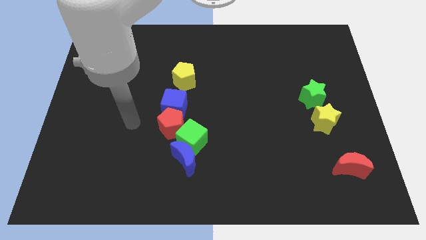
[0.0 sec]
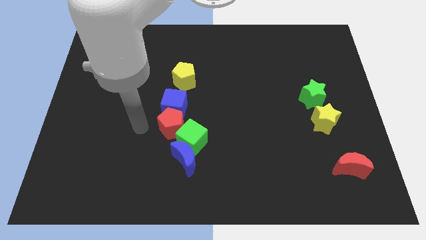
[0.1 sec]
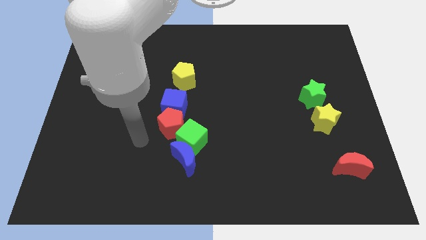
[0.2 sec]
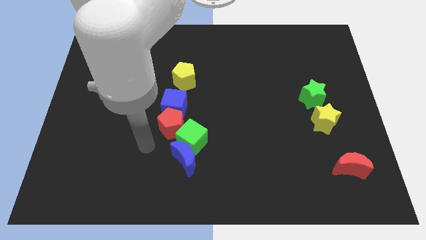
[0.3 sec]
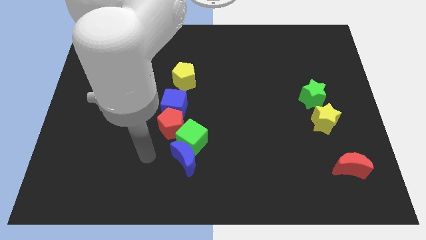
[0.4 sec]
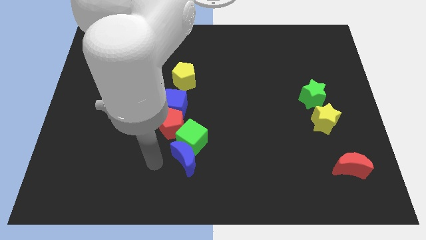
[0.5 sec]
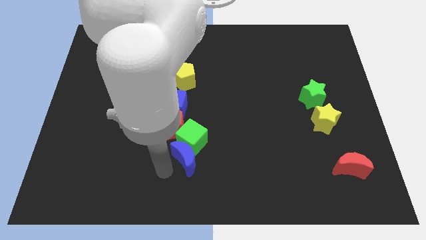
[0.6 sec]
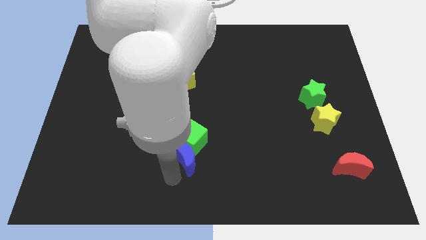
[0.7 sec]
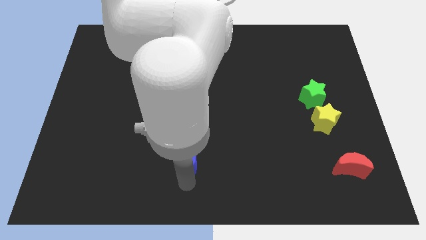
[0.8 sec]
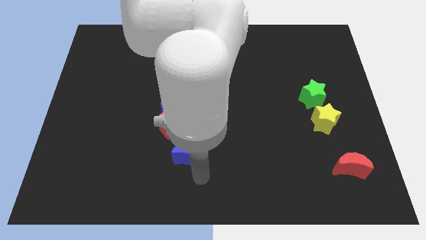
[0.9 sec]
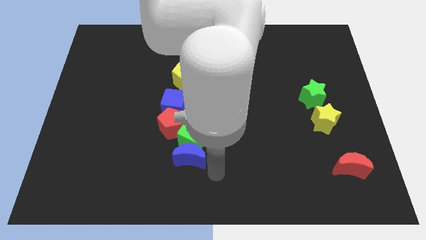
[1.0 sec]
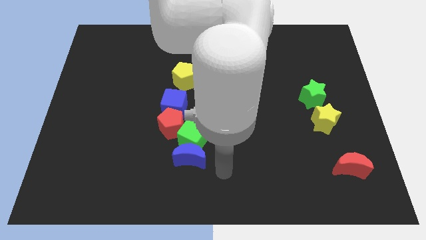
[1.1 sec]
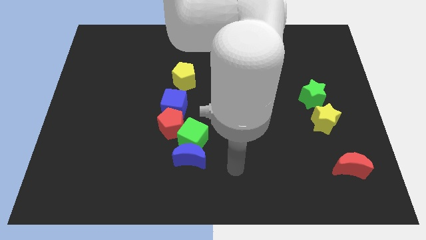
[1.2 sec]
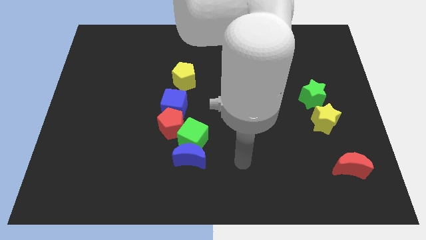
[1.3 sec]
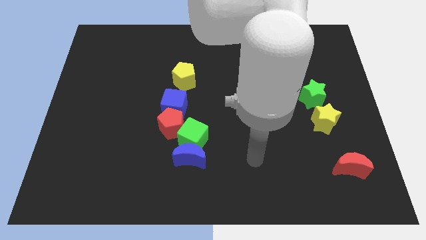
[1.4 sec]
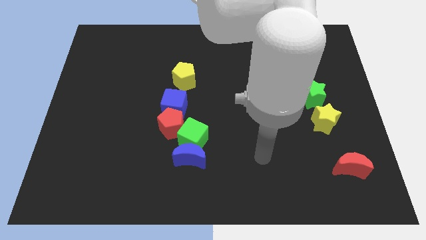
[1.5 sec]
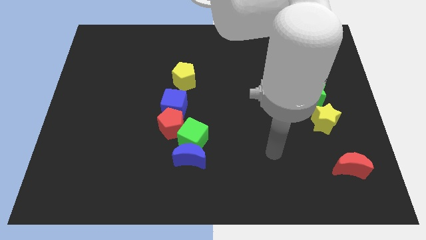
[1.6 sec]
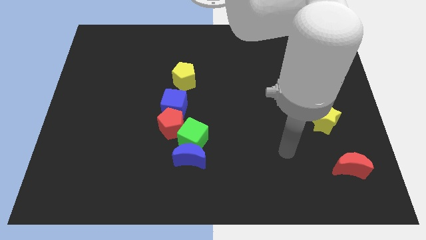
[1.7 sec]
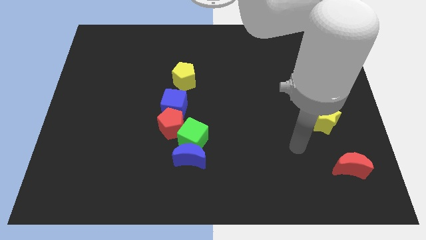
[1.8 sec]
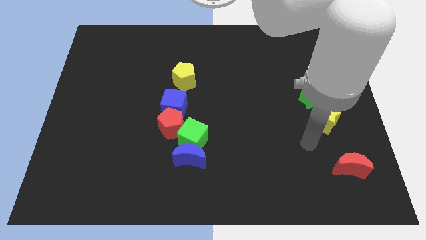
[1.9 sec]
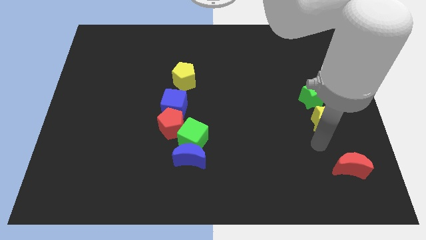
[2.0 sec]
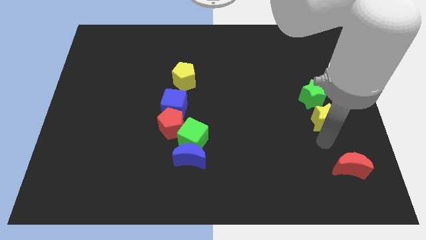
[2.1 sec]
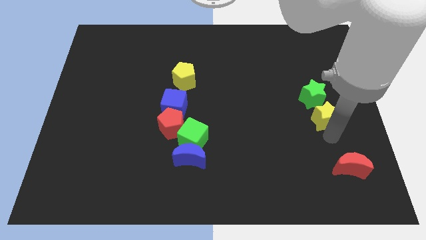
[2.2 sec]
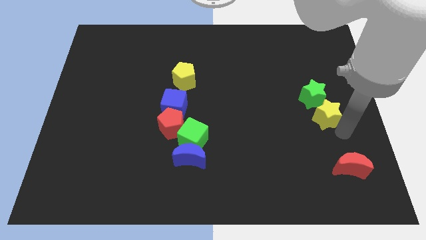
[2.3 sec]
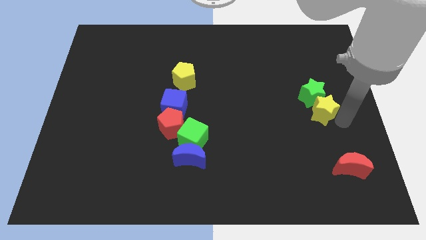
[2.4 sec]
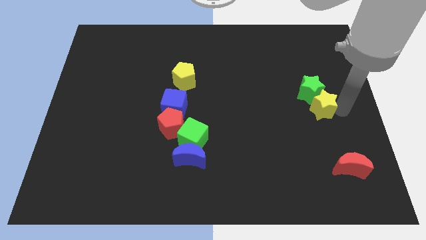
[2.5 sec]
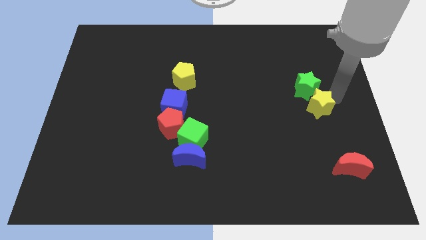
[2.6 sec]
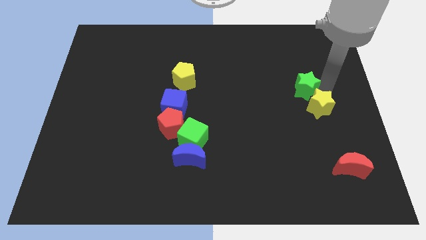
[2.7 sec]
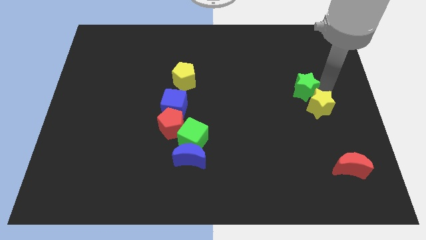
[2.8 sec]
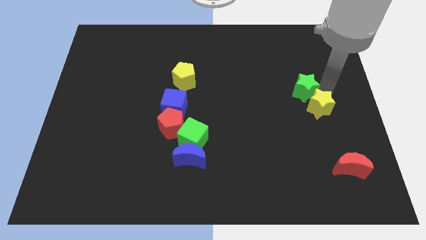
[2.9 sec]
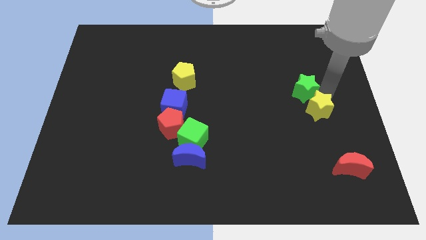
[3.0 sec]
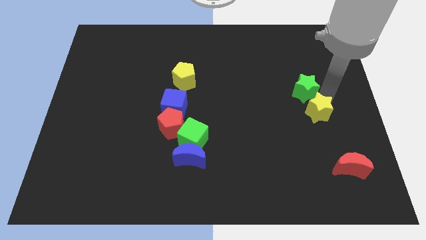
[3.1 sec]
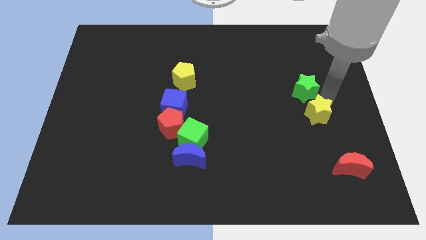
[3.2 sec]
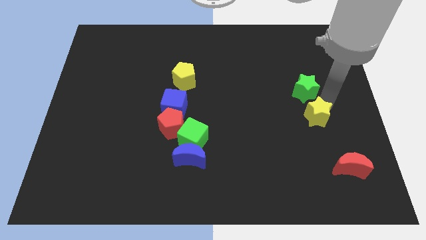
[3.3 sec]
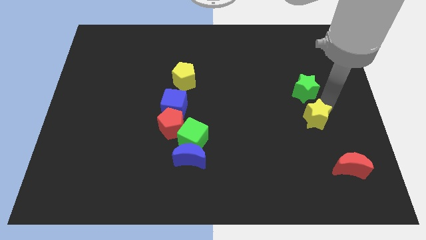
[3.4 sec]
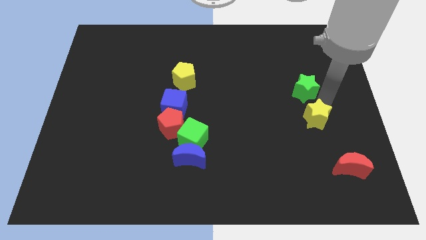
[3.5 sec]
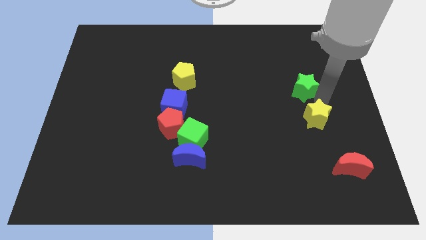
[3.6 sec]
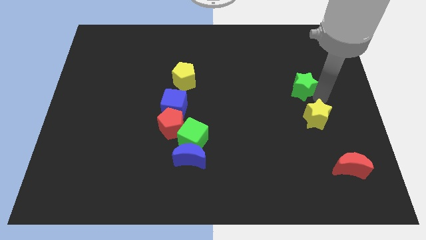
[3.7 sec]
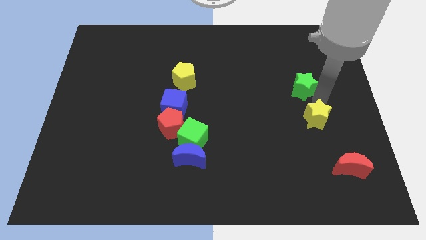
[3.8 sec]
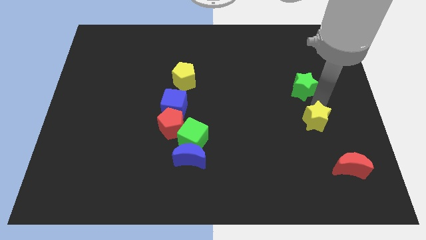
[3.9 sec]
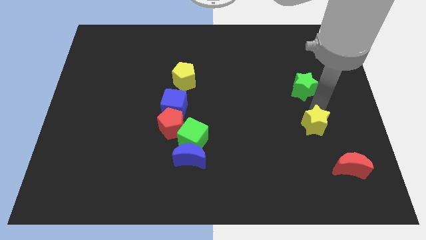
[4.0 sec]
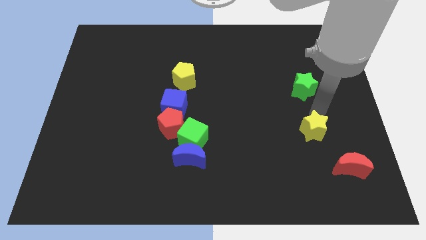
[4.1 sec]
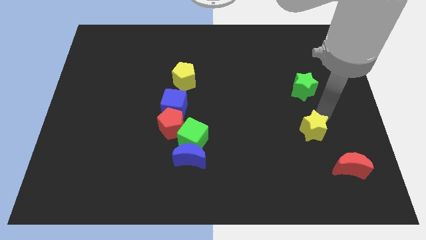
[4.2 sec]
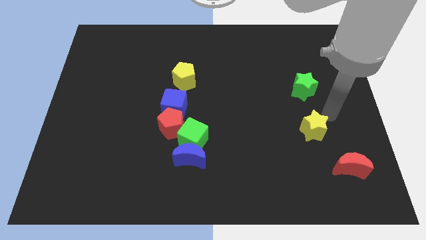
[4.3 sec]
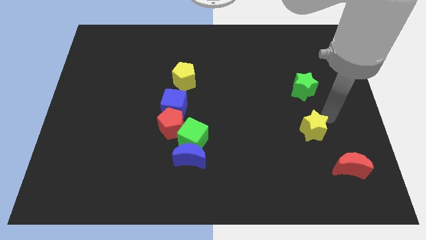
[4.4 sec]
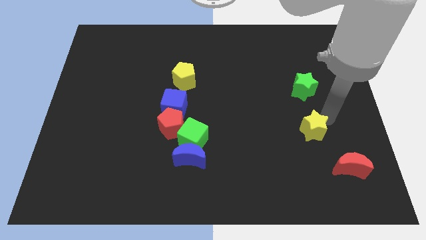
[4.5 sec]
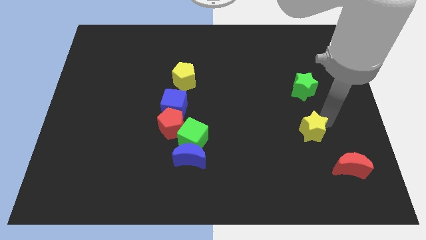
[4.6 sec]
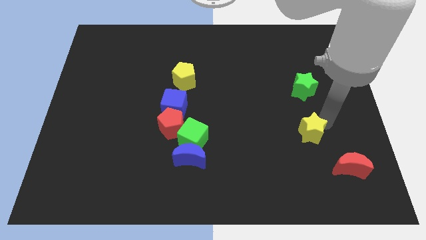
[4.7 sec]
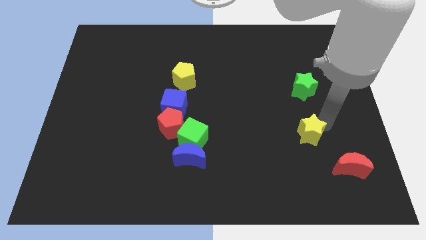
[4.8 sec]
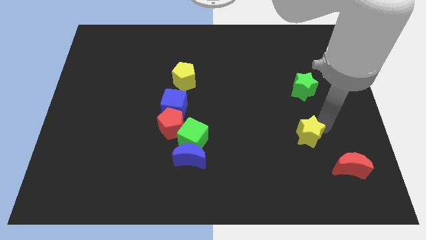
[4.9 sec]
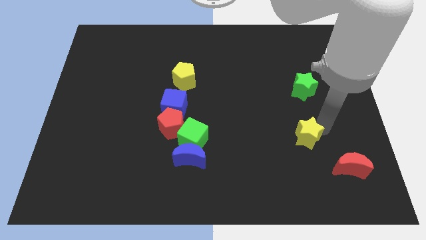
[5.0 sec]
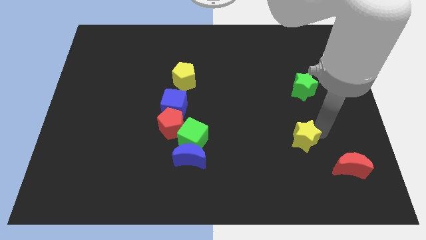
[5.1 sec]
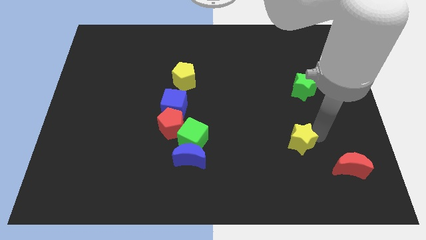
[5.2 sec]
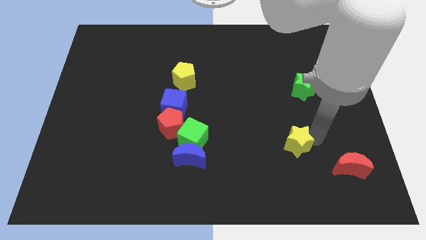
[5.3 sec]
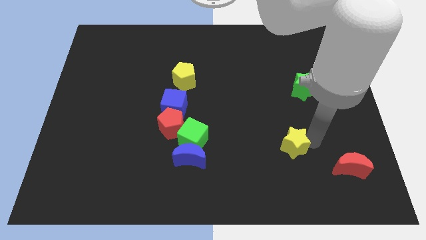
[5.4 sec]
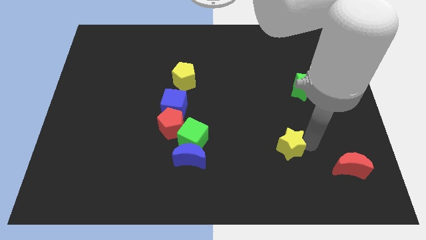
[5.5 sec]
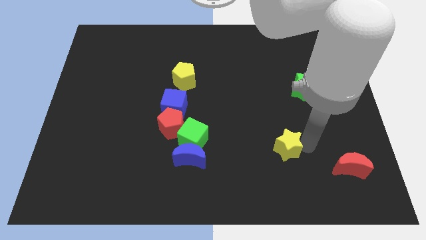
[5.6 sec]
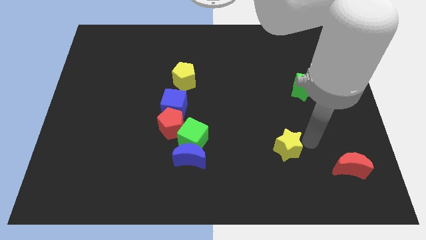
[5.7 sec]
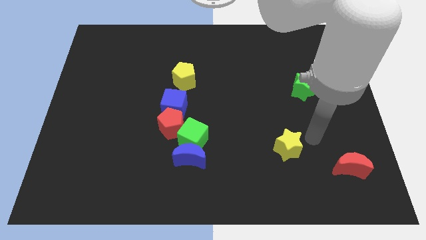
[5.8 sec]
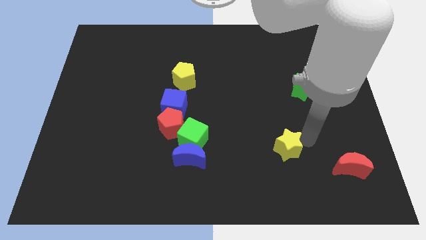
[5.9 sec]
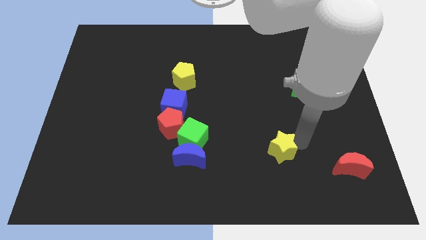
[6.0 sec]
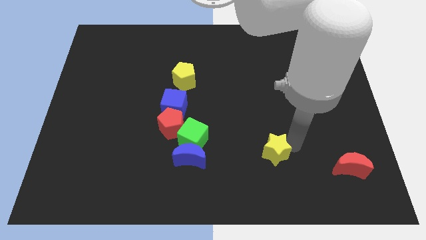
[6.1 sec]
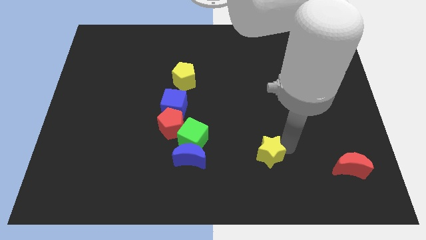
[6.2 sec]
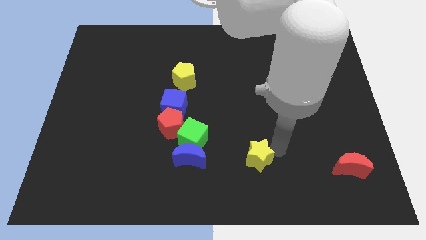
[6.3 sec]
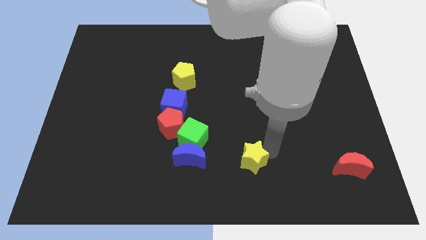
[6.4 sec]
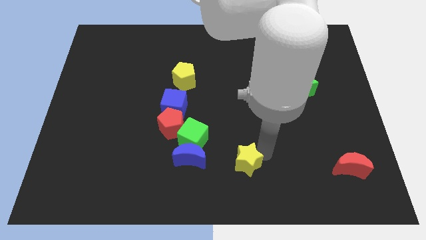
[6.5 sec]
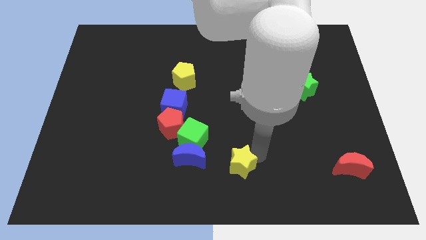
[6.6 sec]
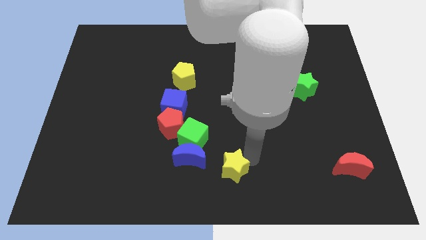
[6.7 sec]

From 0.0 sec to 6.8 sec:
slide the yellow star to the bottom right of the blue moon

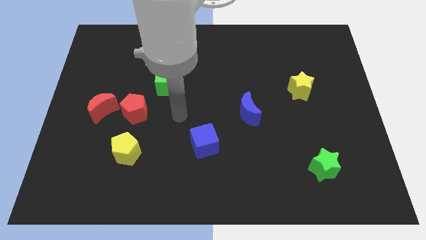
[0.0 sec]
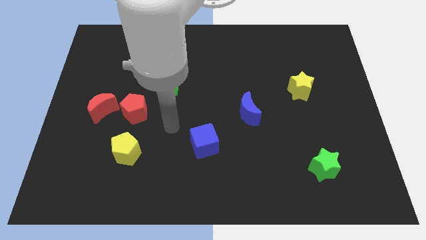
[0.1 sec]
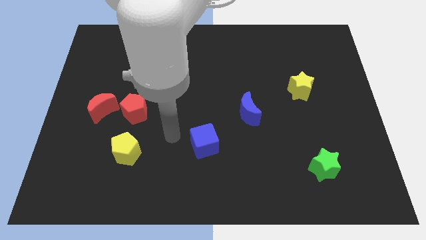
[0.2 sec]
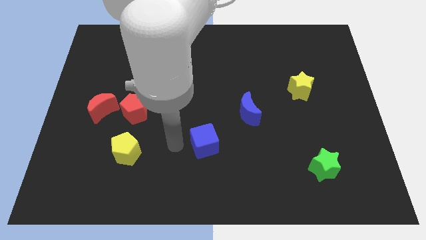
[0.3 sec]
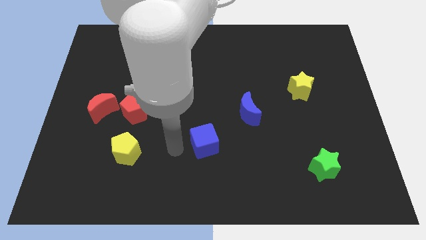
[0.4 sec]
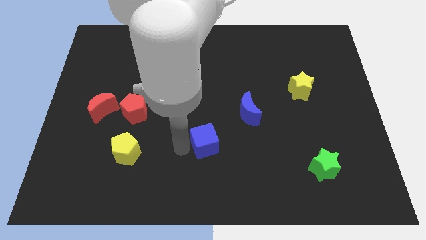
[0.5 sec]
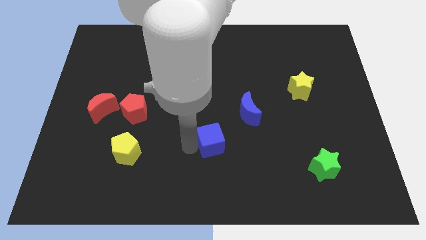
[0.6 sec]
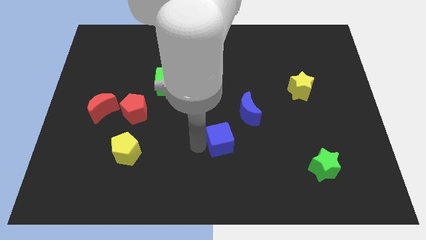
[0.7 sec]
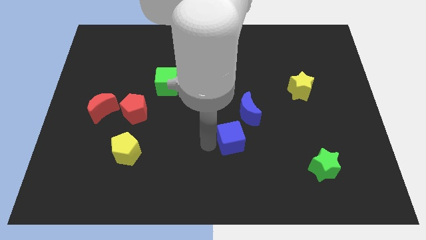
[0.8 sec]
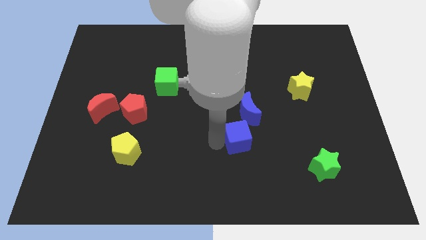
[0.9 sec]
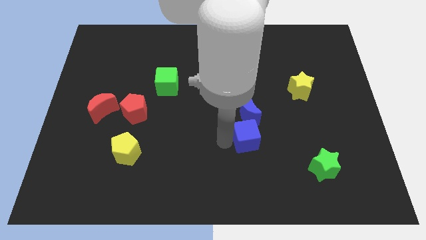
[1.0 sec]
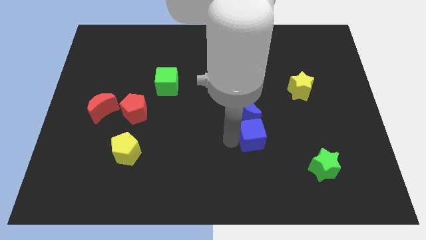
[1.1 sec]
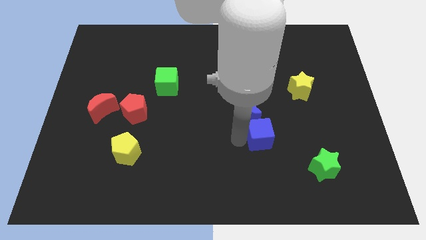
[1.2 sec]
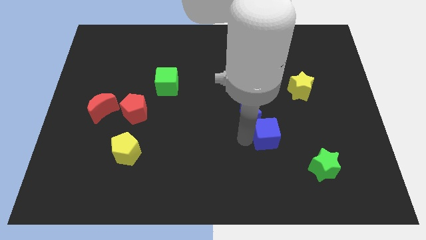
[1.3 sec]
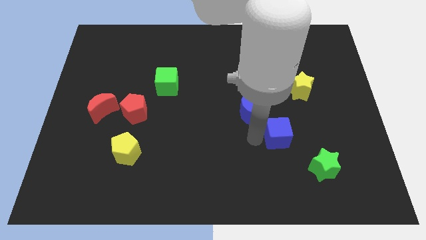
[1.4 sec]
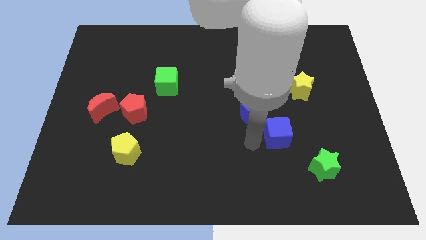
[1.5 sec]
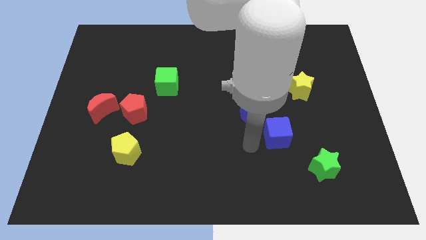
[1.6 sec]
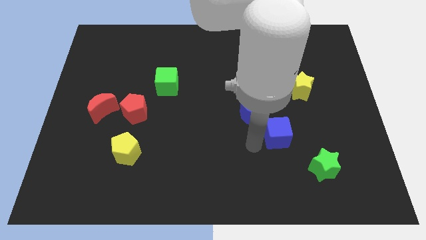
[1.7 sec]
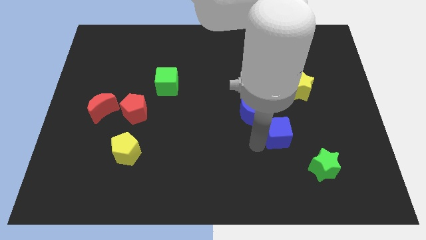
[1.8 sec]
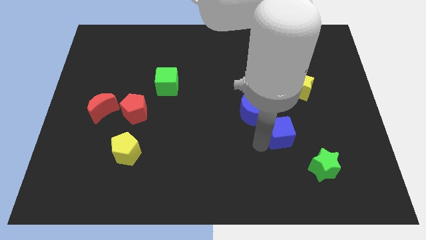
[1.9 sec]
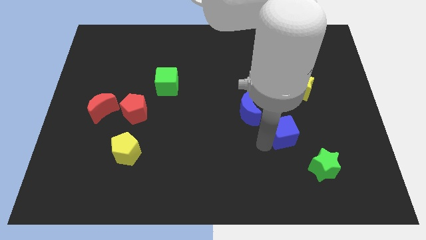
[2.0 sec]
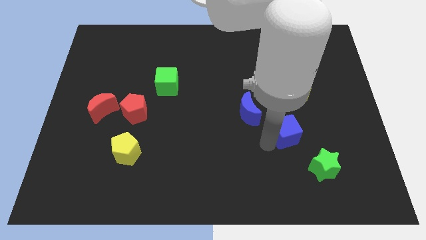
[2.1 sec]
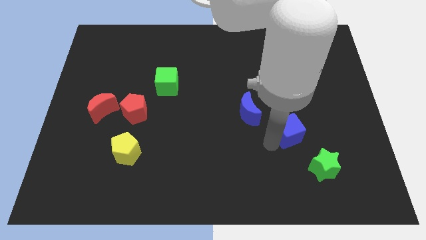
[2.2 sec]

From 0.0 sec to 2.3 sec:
move the blue cube to the bottom side of the yellow star
